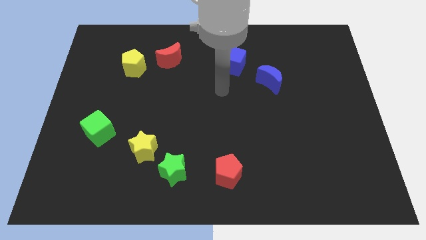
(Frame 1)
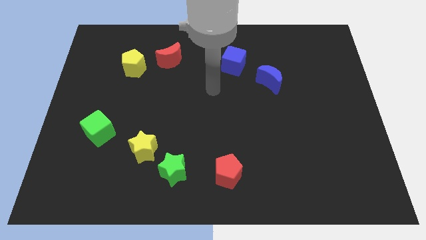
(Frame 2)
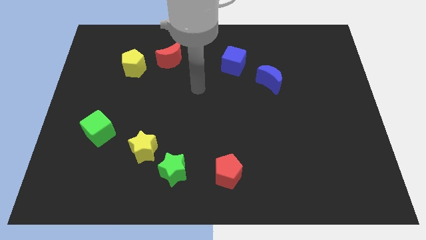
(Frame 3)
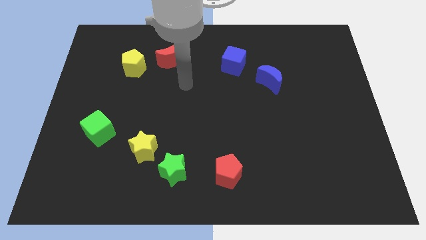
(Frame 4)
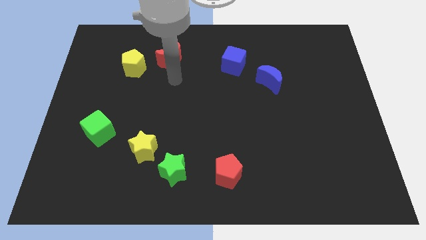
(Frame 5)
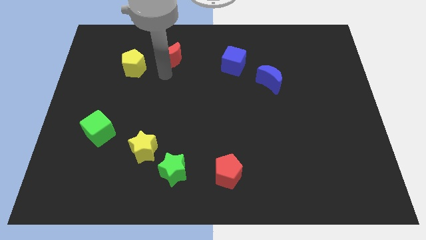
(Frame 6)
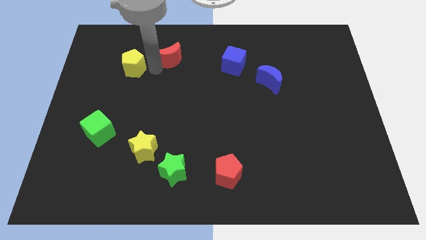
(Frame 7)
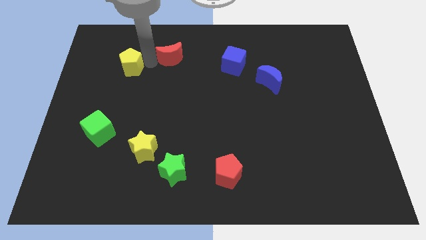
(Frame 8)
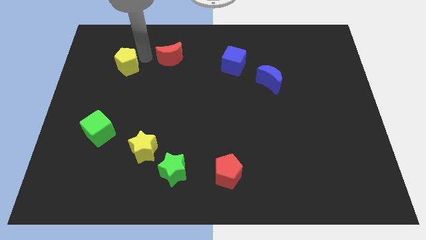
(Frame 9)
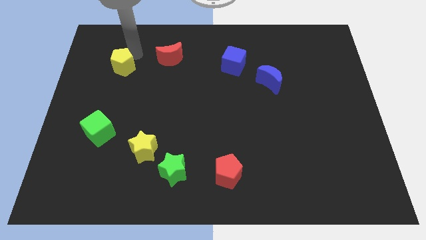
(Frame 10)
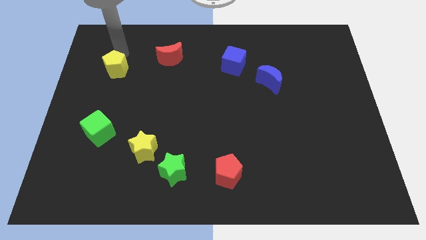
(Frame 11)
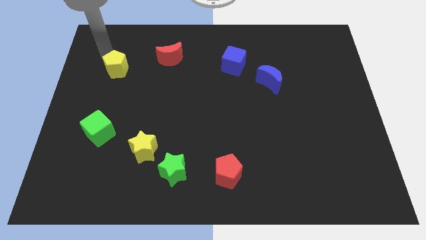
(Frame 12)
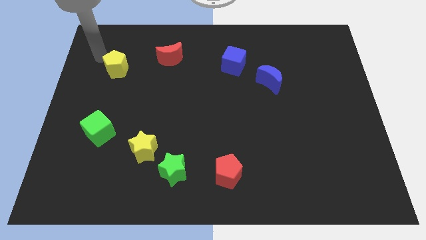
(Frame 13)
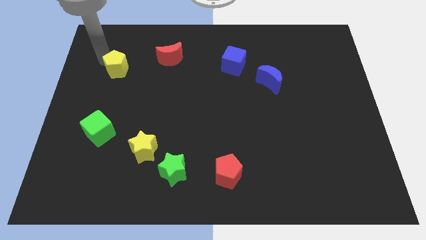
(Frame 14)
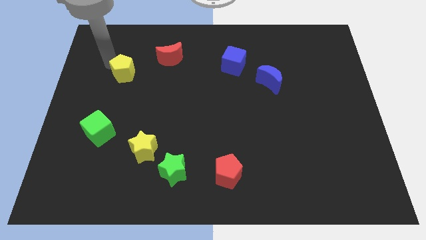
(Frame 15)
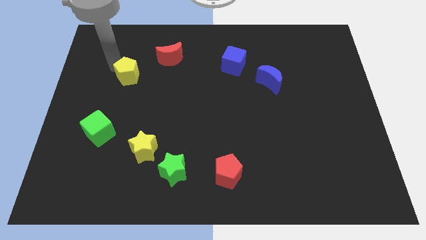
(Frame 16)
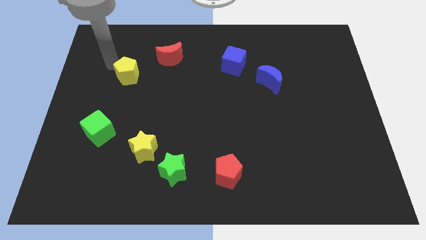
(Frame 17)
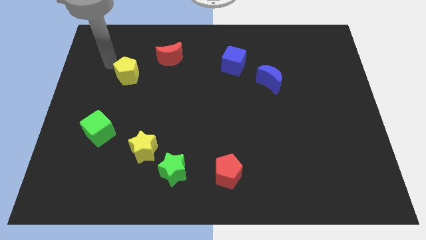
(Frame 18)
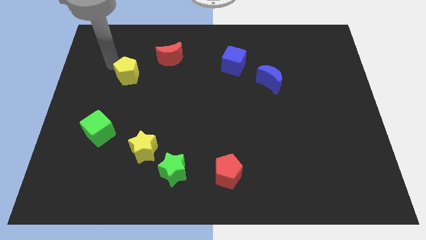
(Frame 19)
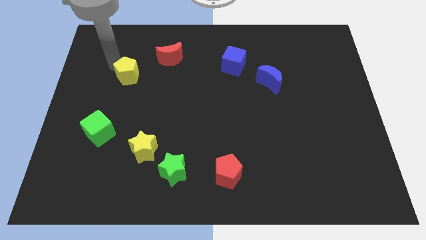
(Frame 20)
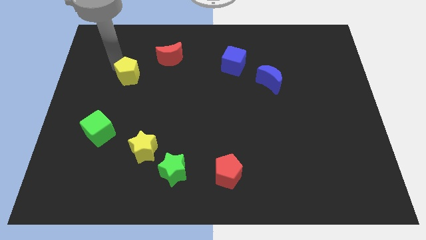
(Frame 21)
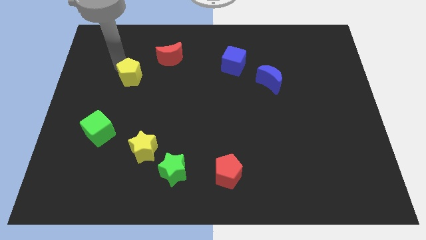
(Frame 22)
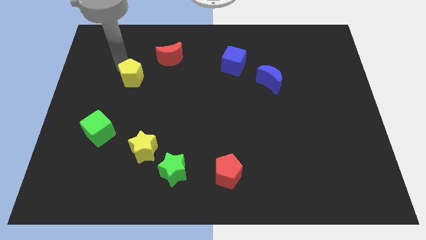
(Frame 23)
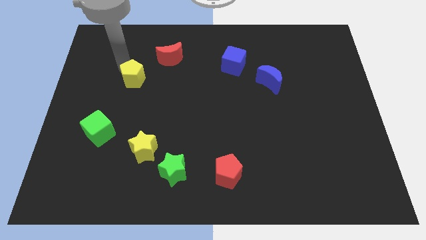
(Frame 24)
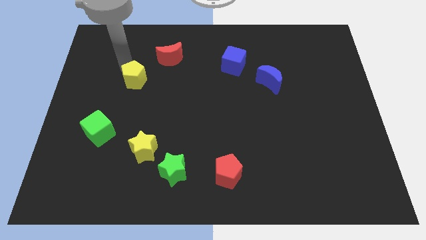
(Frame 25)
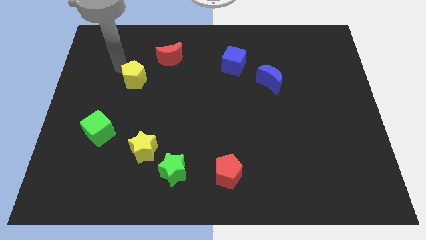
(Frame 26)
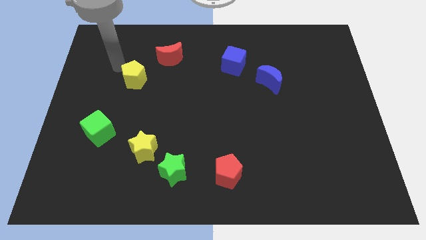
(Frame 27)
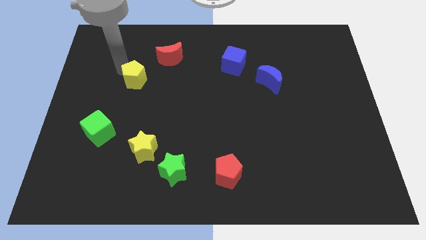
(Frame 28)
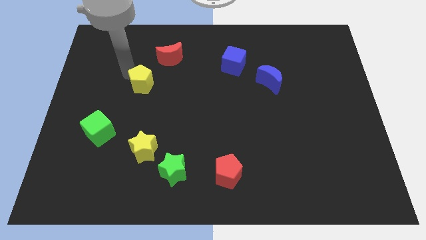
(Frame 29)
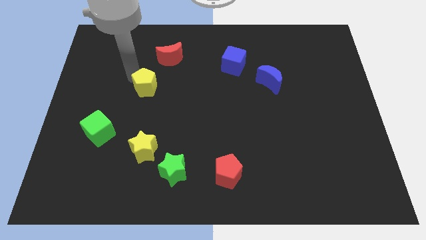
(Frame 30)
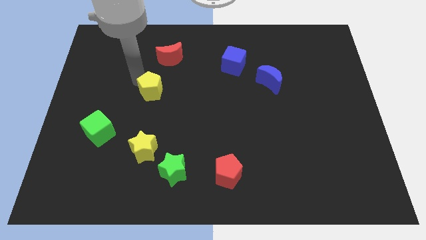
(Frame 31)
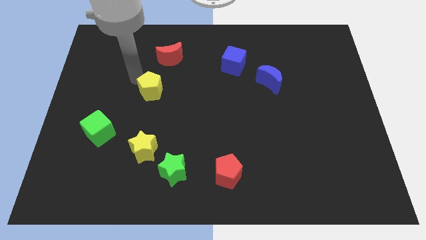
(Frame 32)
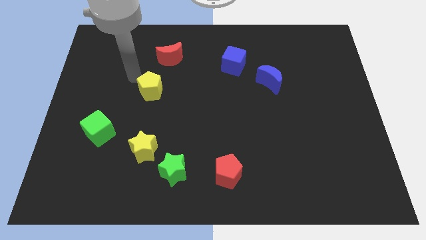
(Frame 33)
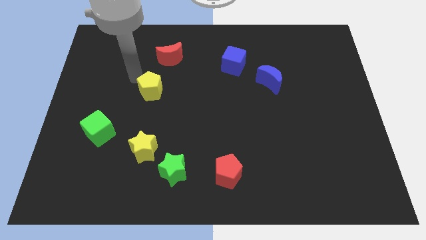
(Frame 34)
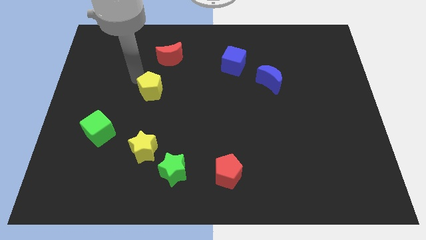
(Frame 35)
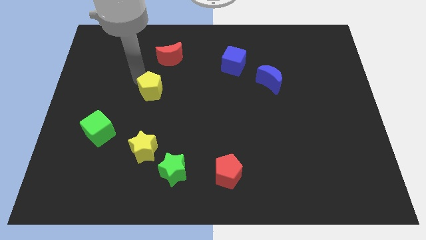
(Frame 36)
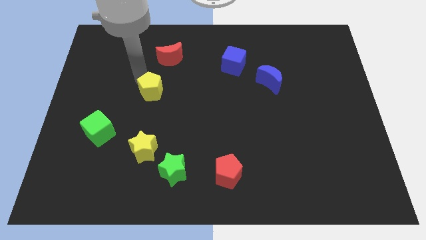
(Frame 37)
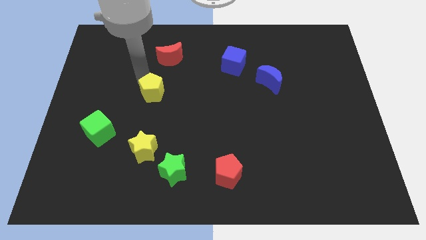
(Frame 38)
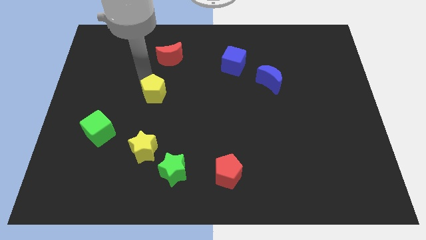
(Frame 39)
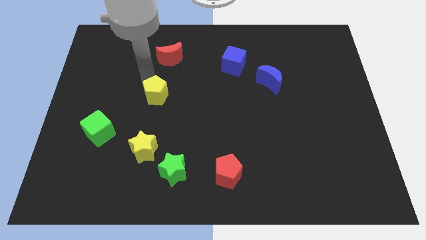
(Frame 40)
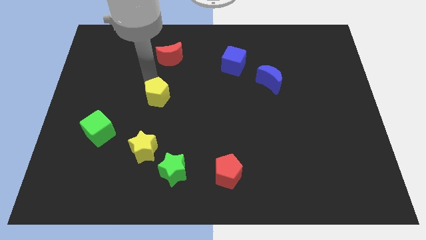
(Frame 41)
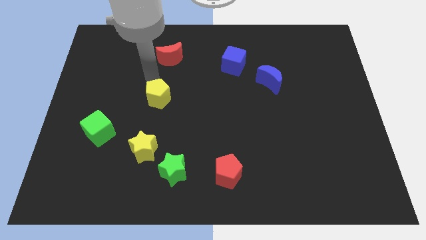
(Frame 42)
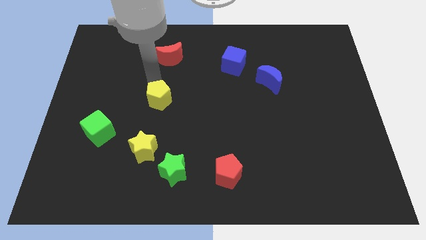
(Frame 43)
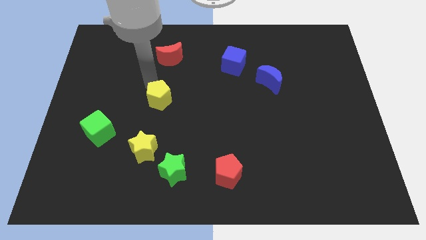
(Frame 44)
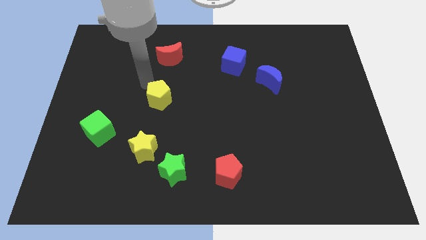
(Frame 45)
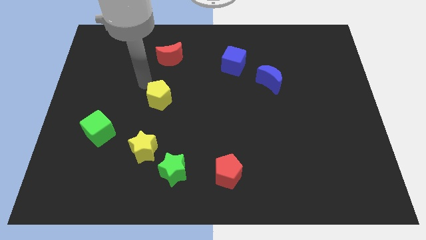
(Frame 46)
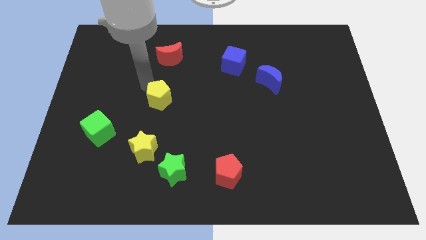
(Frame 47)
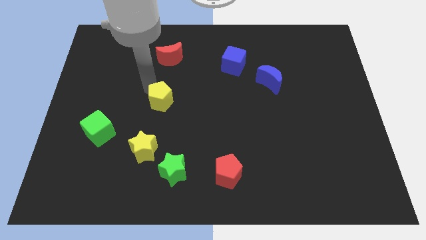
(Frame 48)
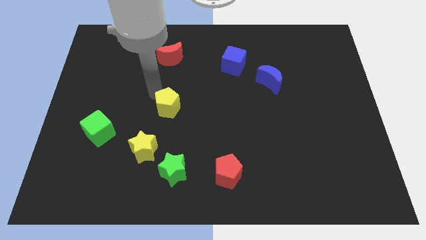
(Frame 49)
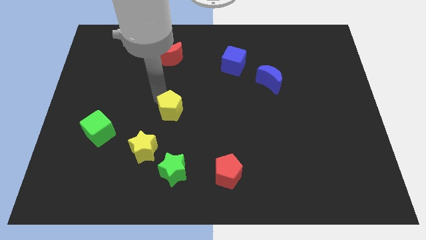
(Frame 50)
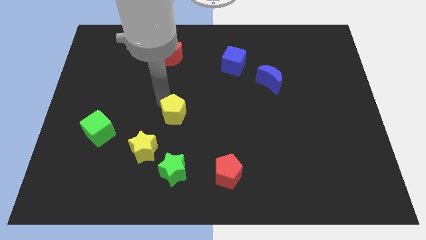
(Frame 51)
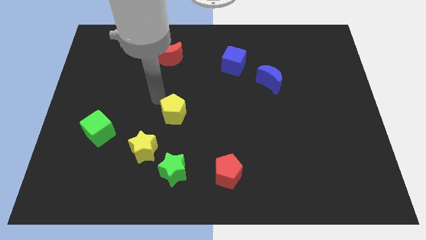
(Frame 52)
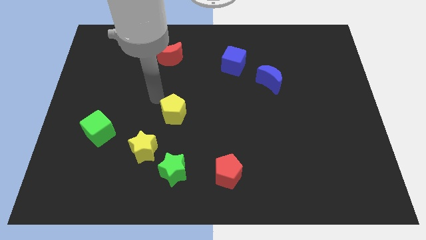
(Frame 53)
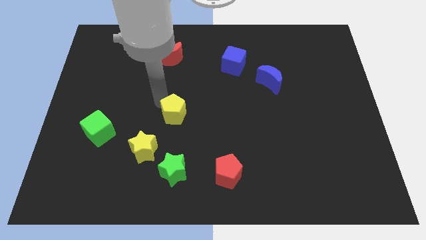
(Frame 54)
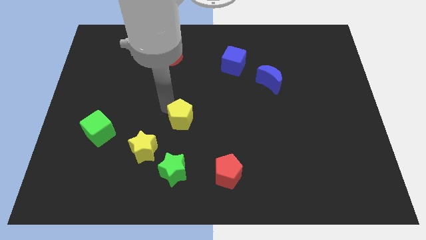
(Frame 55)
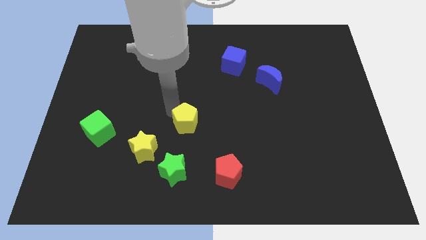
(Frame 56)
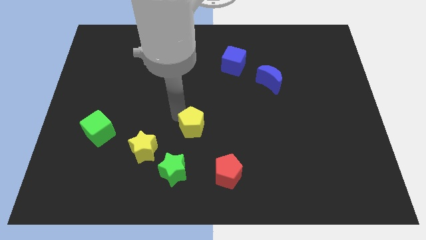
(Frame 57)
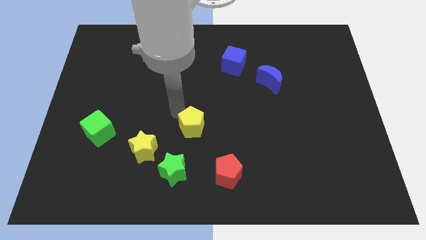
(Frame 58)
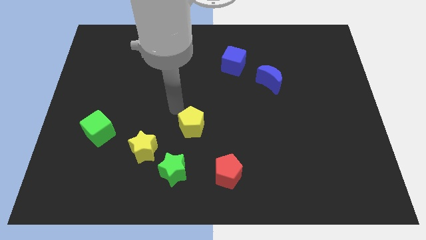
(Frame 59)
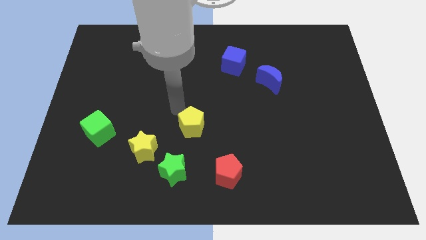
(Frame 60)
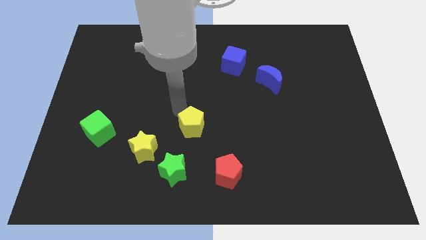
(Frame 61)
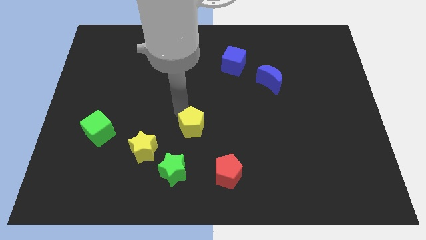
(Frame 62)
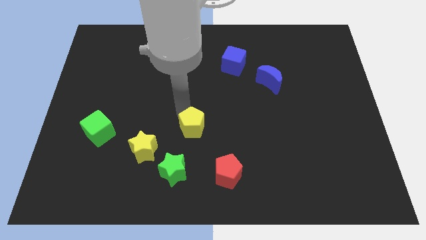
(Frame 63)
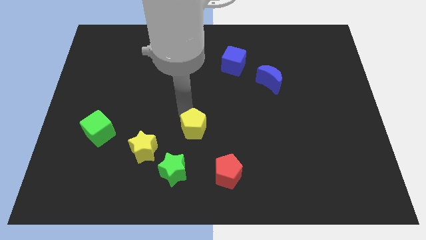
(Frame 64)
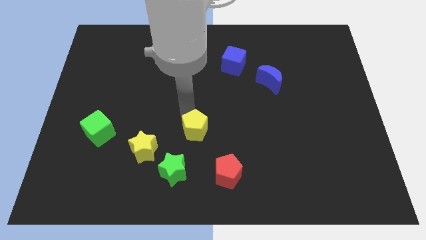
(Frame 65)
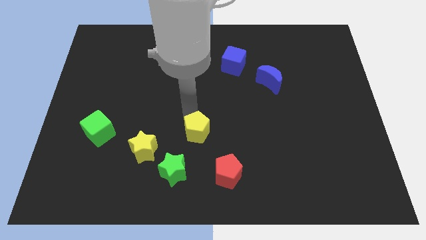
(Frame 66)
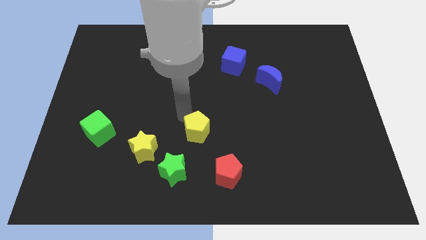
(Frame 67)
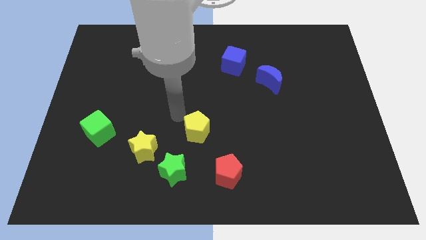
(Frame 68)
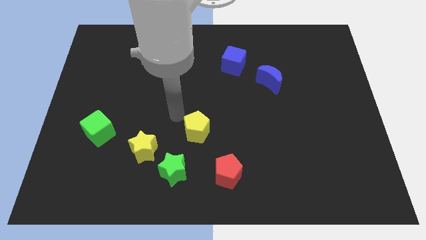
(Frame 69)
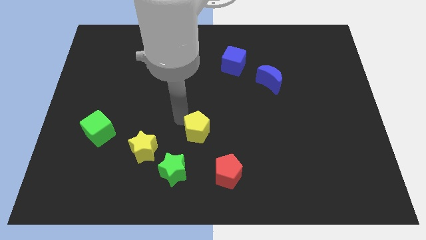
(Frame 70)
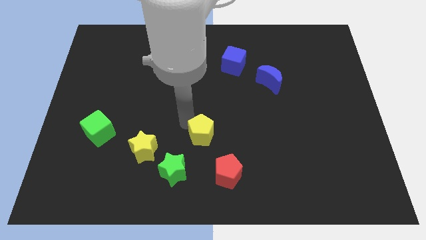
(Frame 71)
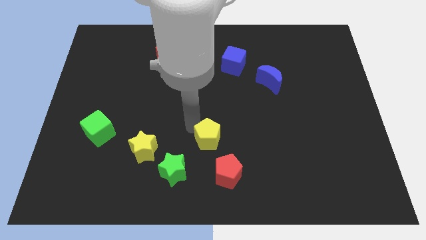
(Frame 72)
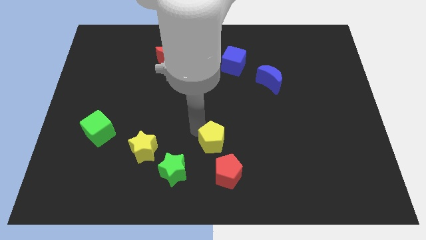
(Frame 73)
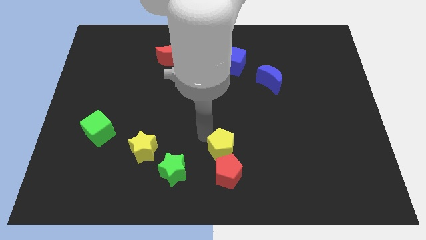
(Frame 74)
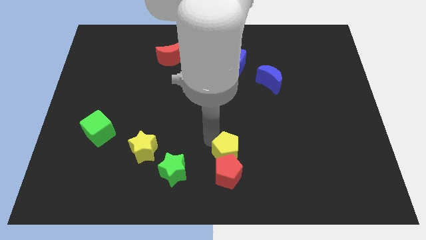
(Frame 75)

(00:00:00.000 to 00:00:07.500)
slide the yellow pentagon right of the green star
